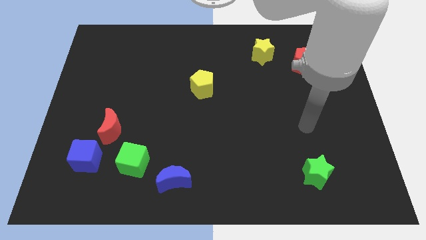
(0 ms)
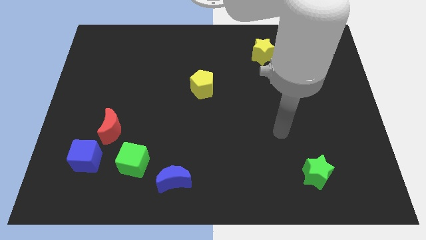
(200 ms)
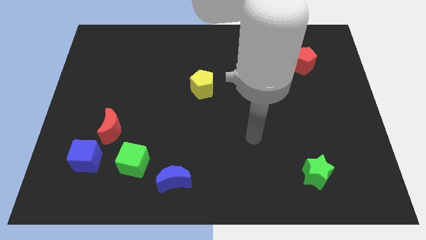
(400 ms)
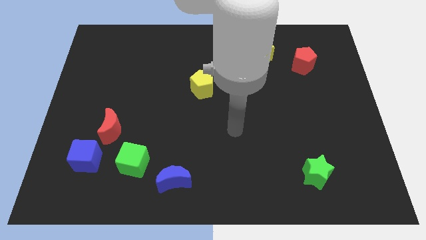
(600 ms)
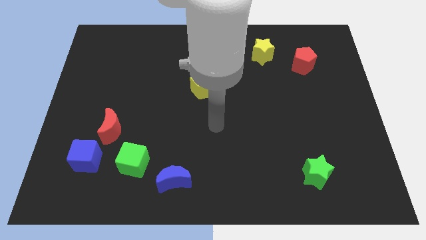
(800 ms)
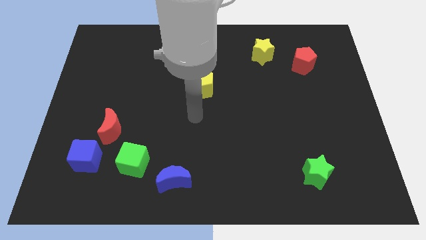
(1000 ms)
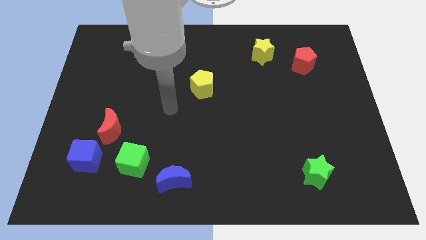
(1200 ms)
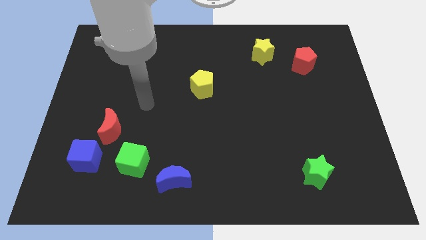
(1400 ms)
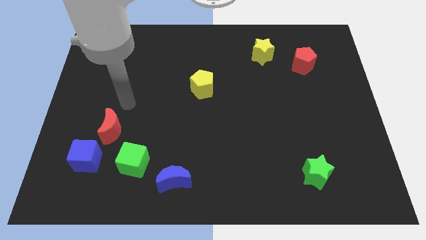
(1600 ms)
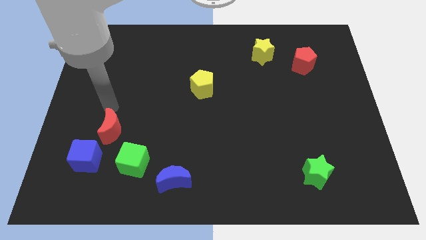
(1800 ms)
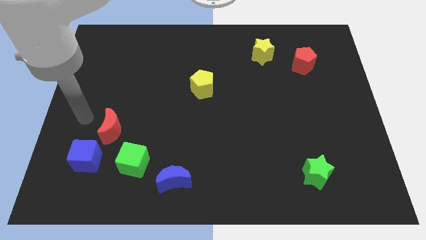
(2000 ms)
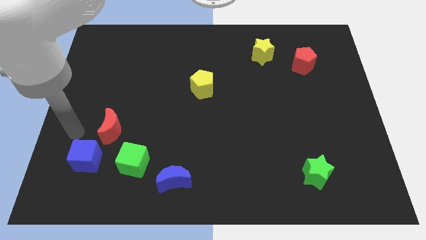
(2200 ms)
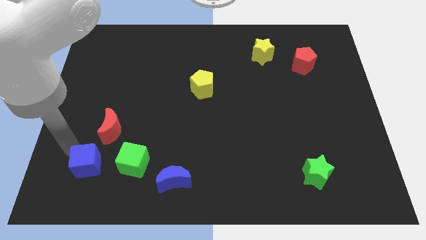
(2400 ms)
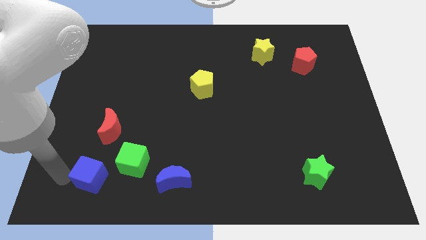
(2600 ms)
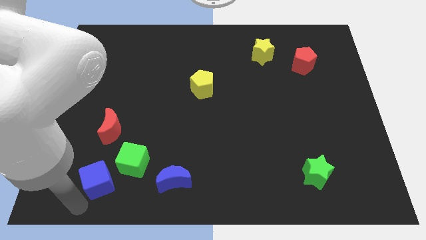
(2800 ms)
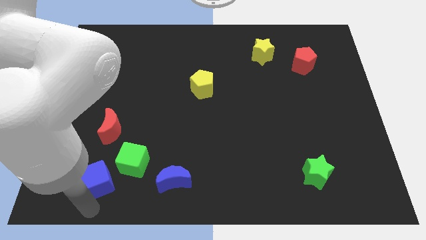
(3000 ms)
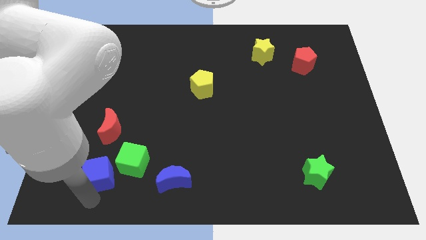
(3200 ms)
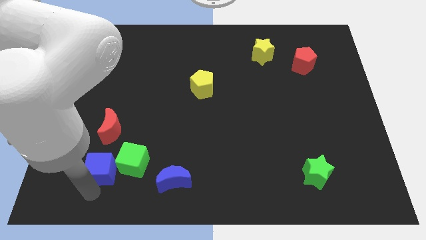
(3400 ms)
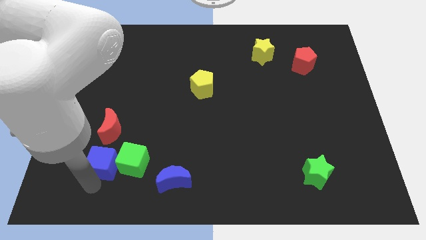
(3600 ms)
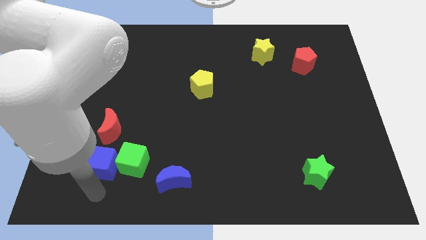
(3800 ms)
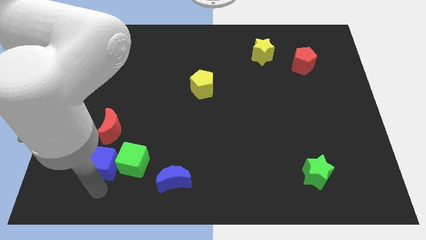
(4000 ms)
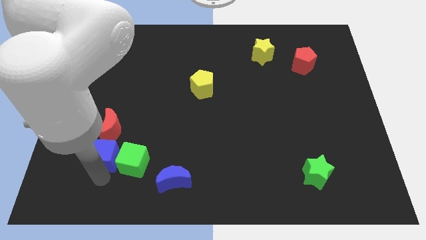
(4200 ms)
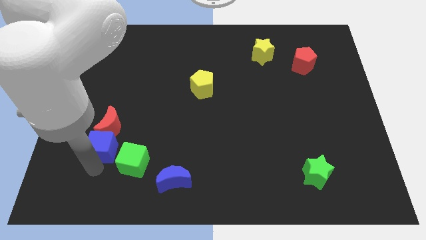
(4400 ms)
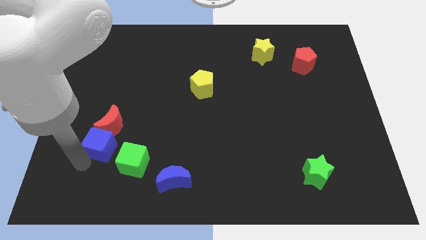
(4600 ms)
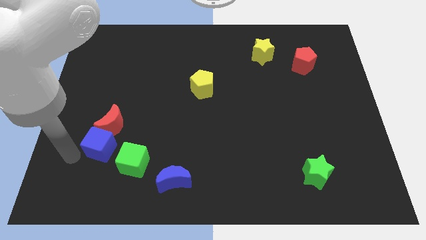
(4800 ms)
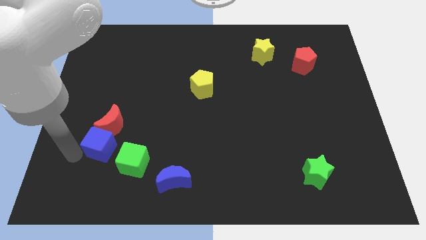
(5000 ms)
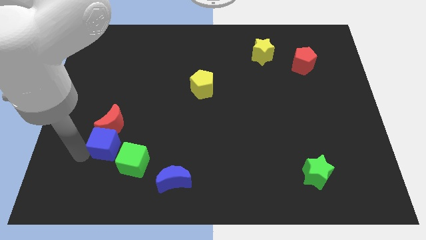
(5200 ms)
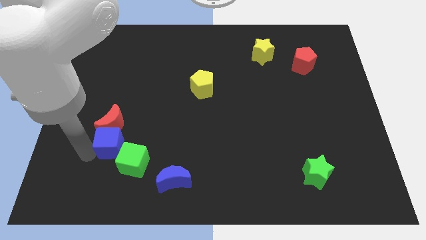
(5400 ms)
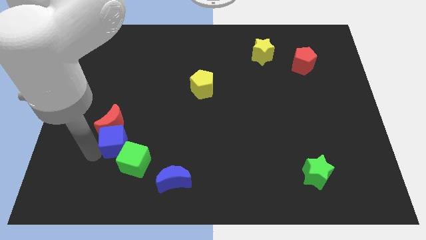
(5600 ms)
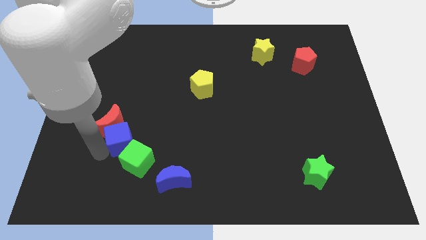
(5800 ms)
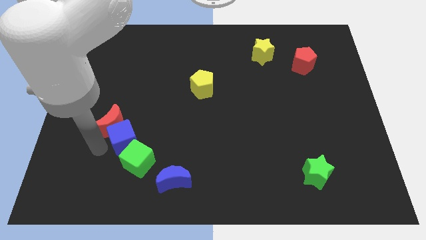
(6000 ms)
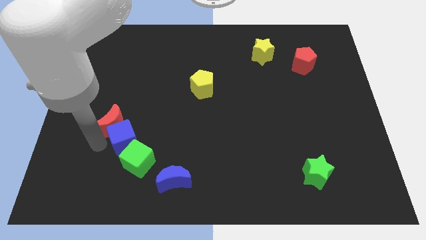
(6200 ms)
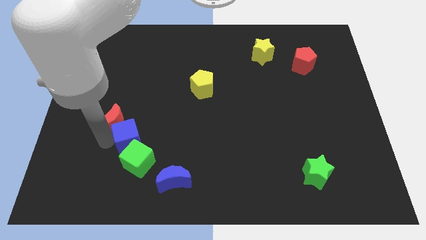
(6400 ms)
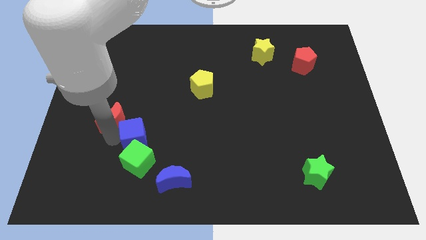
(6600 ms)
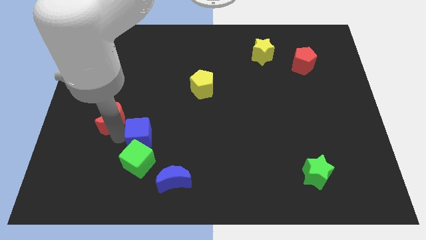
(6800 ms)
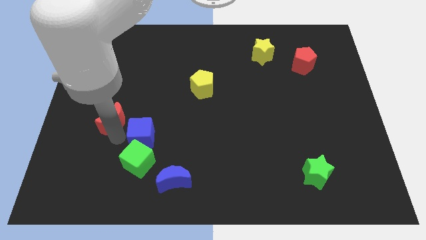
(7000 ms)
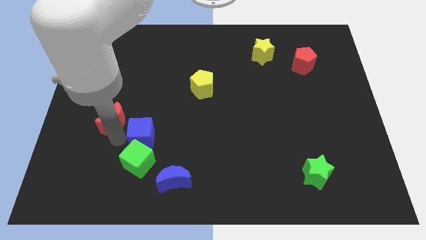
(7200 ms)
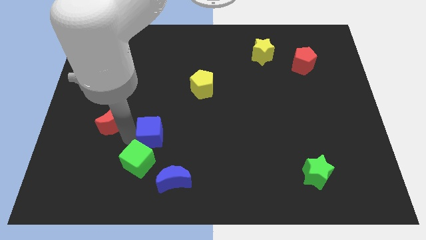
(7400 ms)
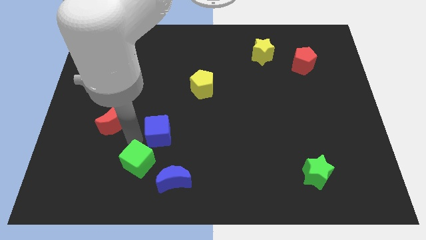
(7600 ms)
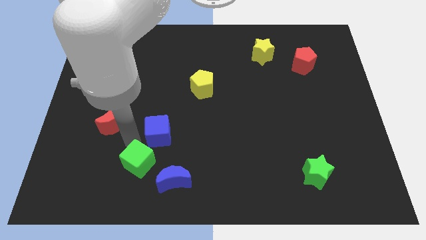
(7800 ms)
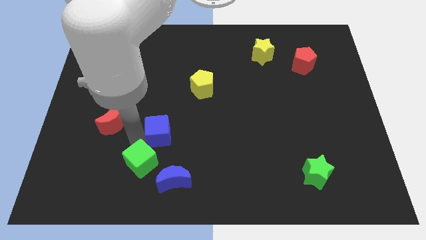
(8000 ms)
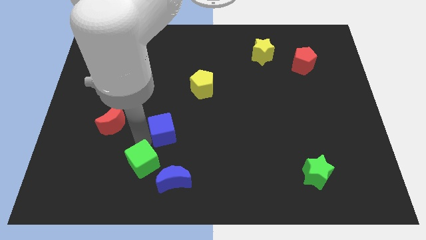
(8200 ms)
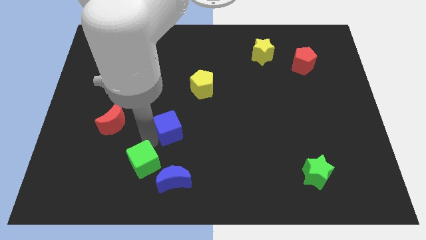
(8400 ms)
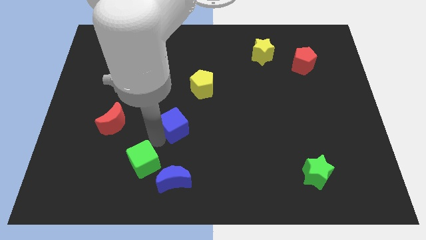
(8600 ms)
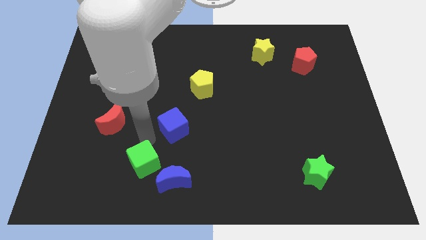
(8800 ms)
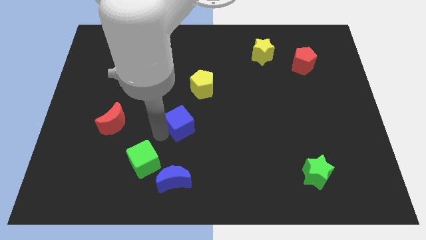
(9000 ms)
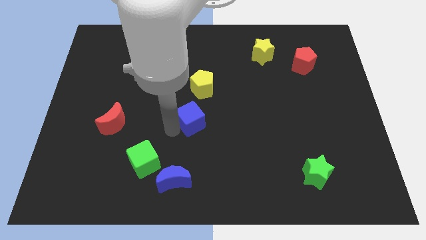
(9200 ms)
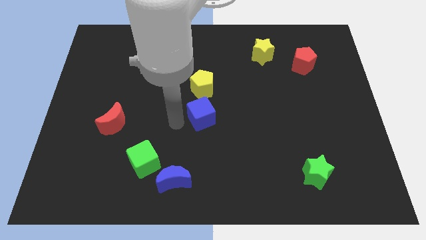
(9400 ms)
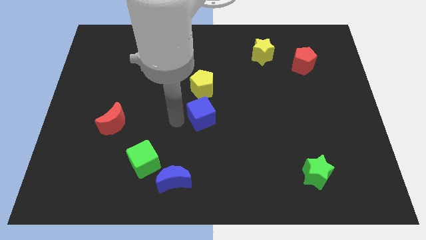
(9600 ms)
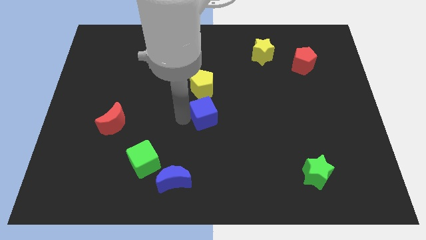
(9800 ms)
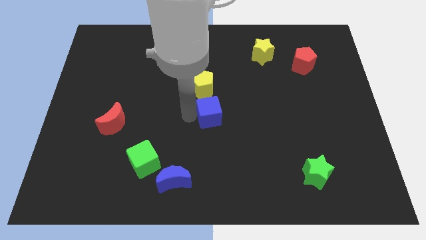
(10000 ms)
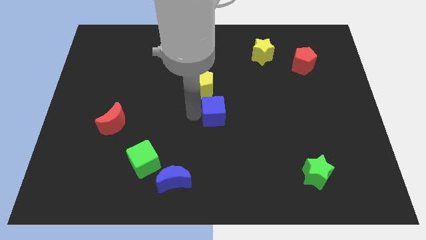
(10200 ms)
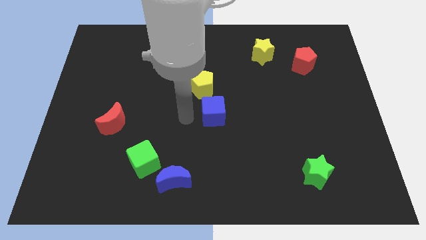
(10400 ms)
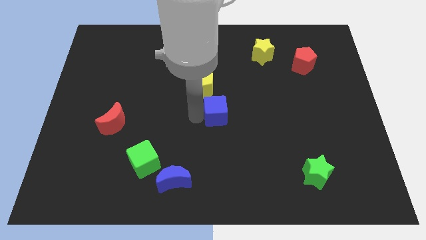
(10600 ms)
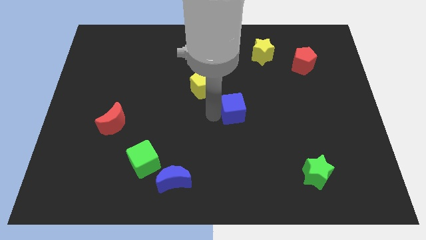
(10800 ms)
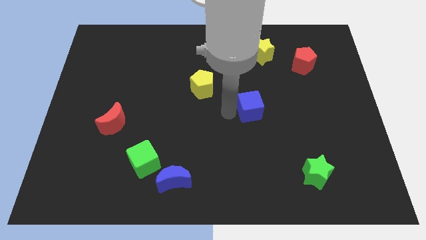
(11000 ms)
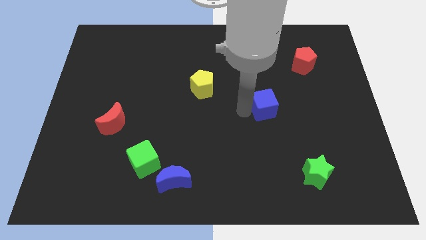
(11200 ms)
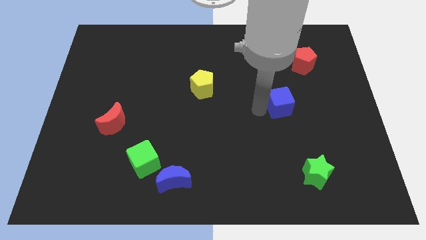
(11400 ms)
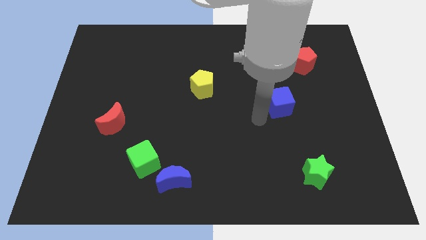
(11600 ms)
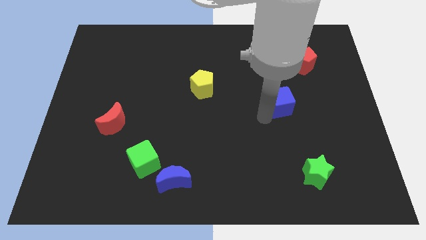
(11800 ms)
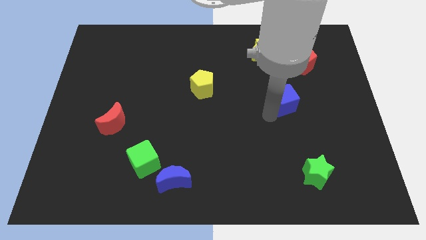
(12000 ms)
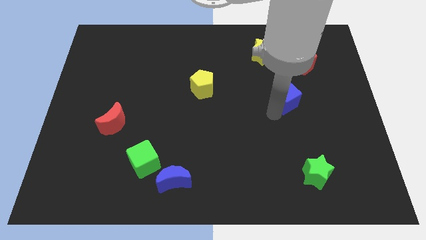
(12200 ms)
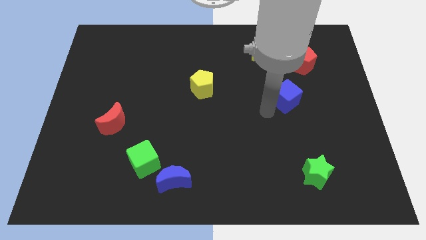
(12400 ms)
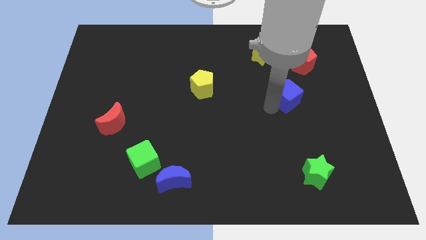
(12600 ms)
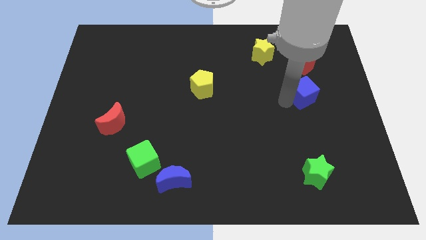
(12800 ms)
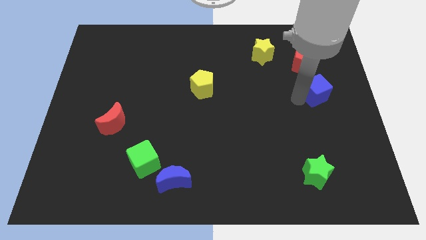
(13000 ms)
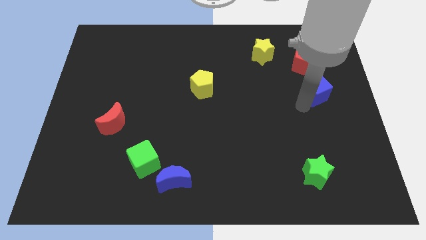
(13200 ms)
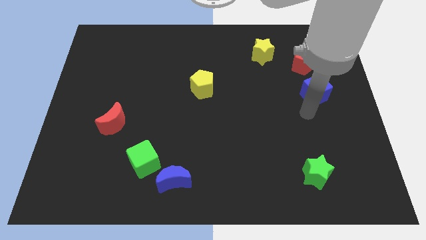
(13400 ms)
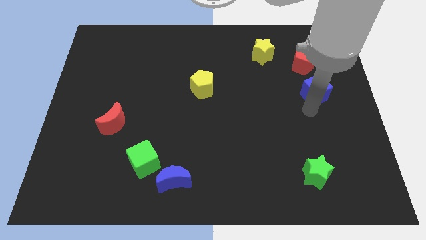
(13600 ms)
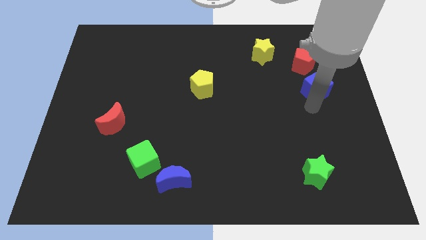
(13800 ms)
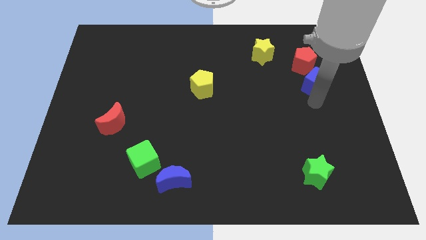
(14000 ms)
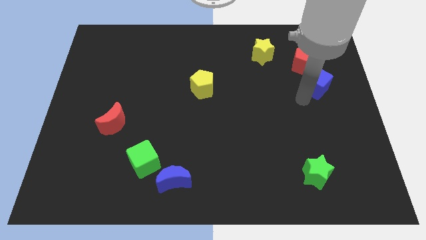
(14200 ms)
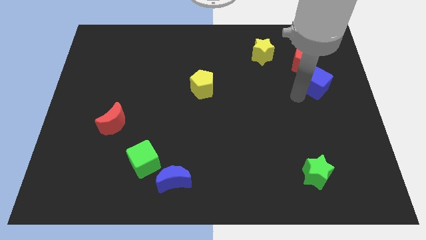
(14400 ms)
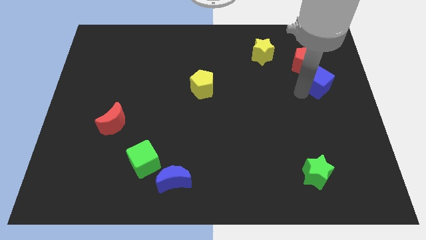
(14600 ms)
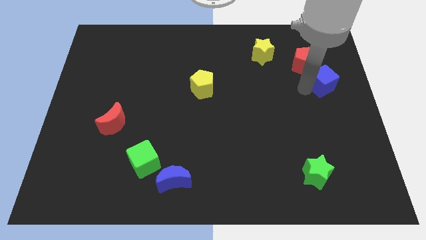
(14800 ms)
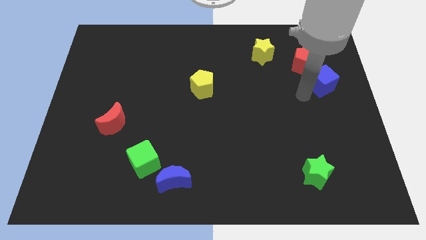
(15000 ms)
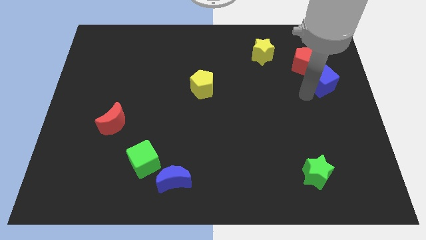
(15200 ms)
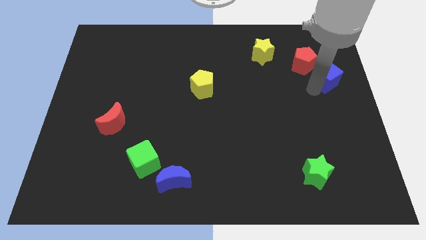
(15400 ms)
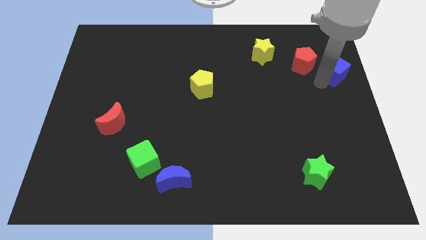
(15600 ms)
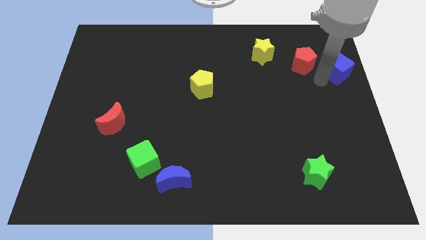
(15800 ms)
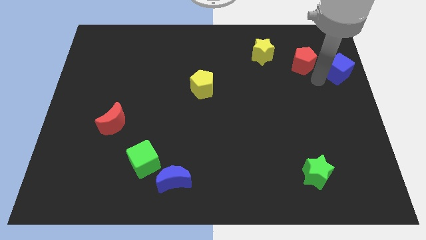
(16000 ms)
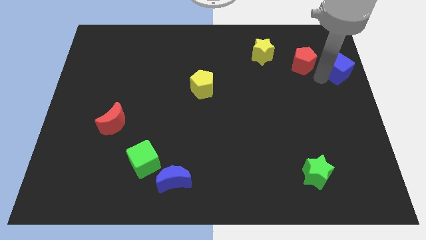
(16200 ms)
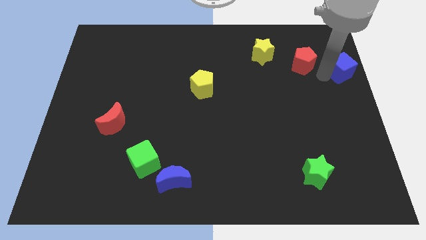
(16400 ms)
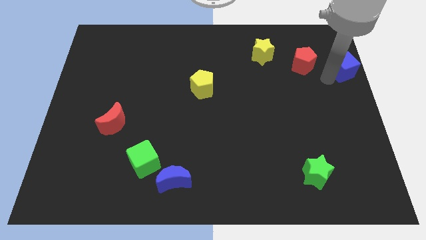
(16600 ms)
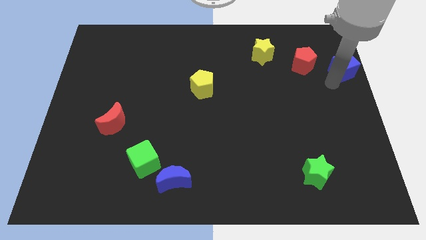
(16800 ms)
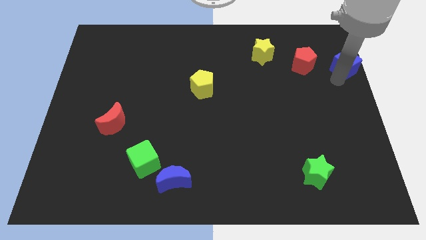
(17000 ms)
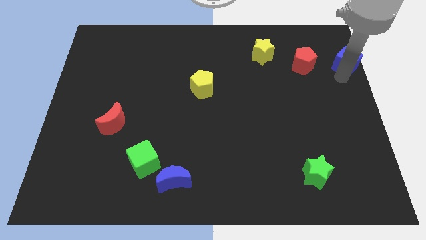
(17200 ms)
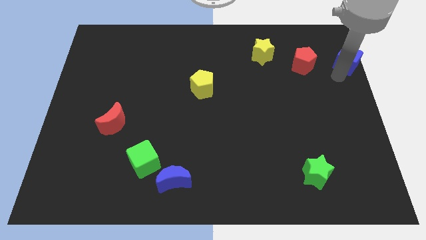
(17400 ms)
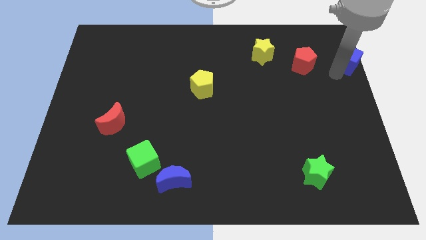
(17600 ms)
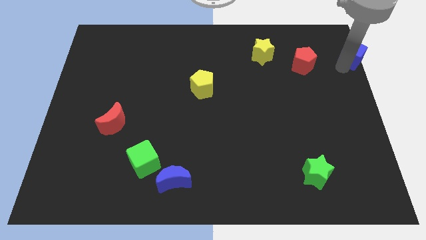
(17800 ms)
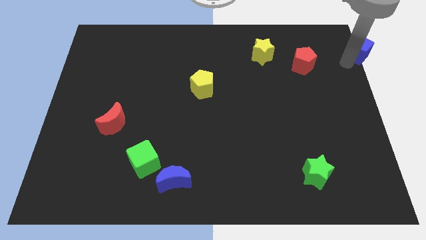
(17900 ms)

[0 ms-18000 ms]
move the blue cube to the top right of the board
